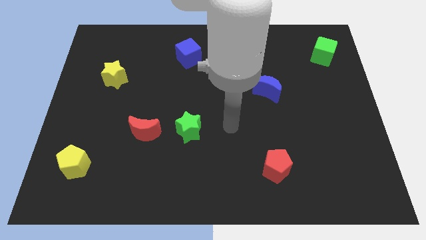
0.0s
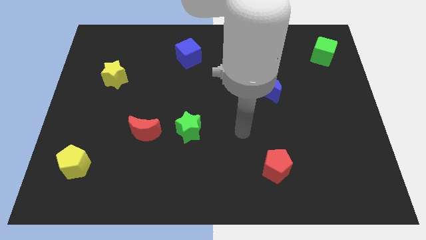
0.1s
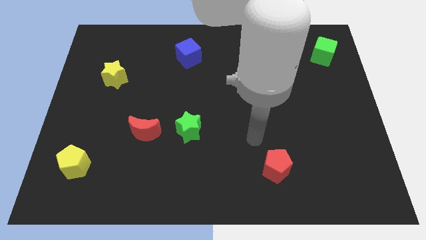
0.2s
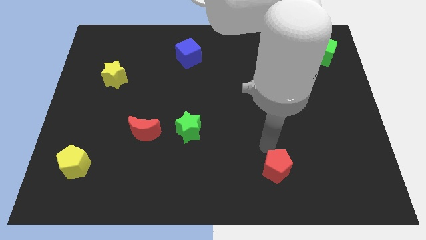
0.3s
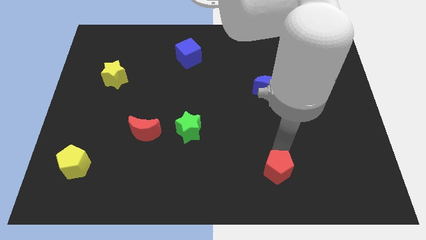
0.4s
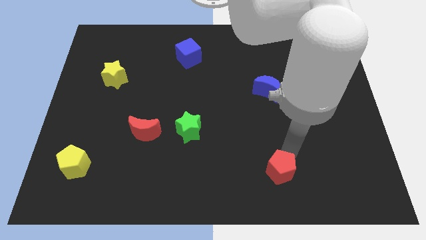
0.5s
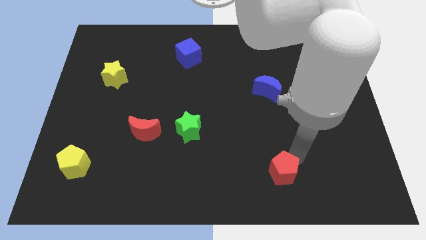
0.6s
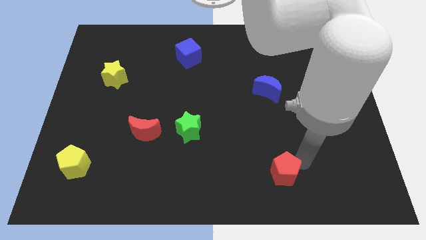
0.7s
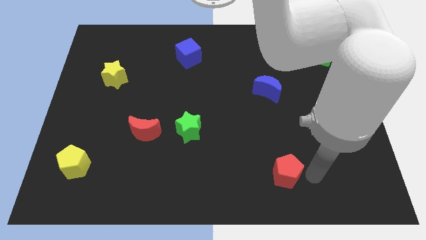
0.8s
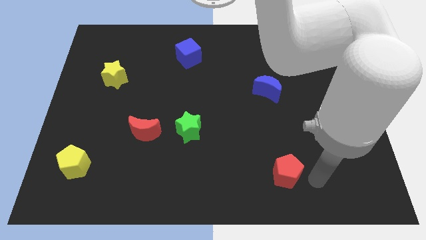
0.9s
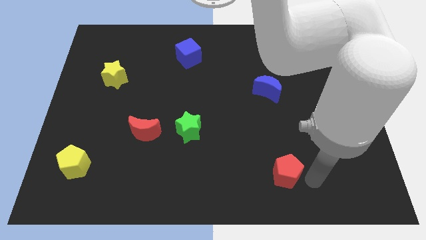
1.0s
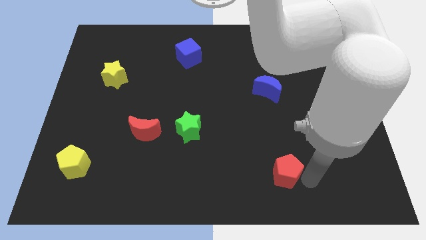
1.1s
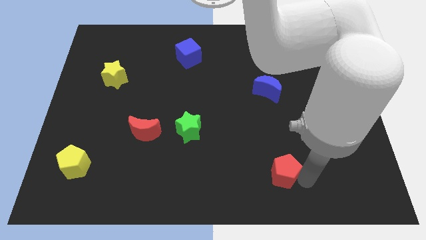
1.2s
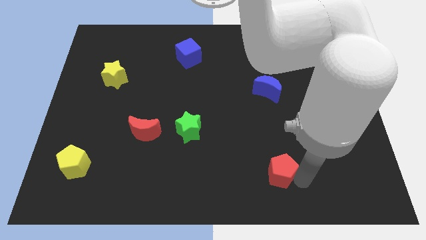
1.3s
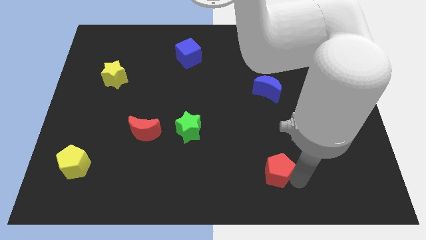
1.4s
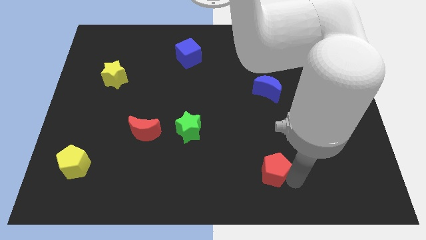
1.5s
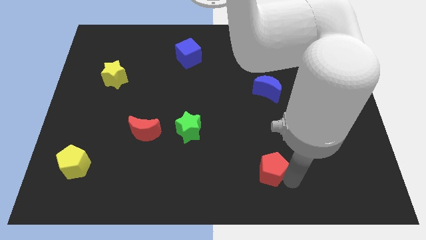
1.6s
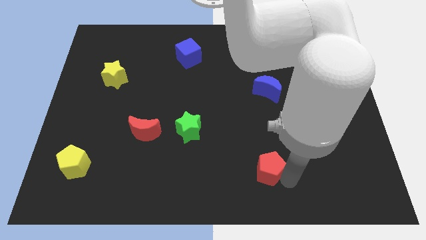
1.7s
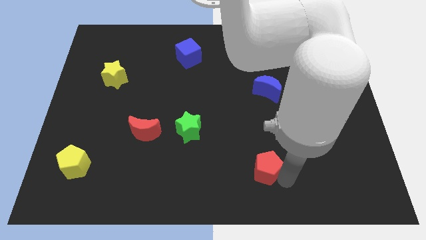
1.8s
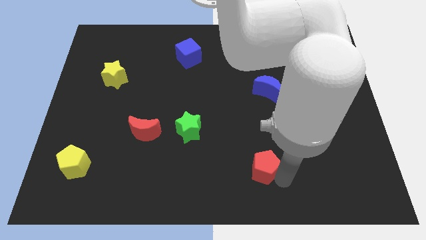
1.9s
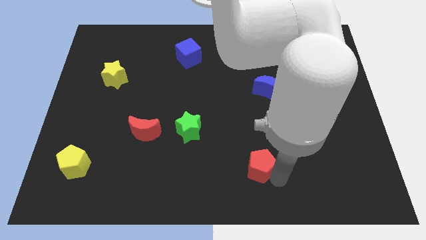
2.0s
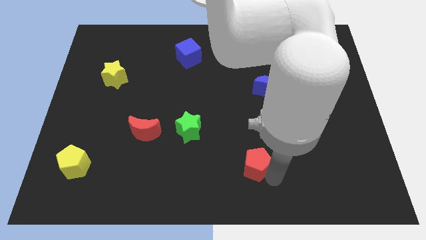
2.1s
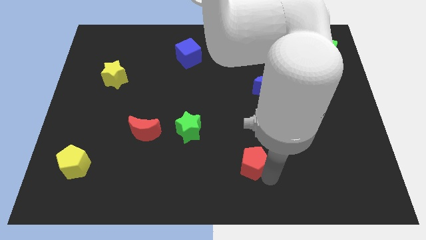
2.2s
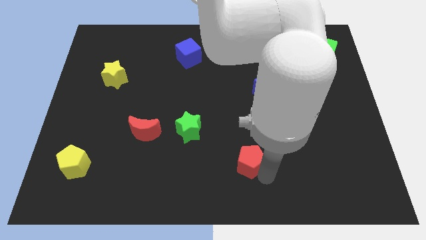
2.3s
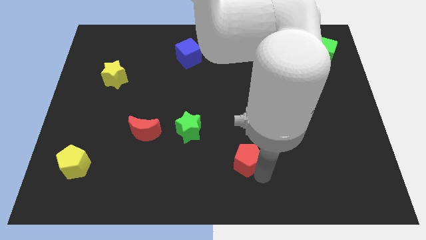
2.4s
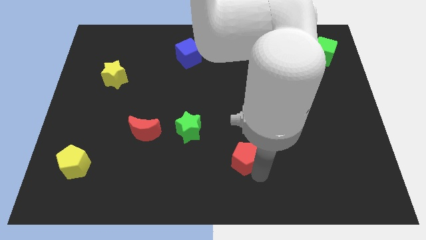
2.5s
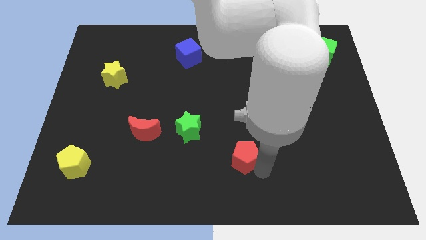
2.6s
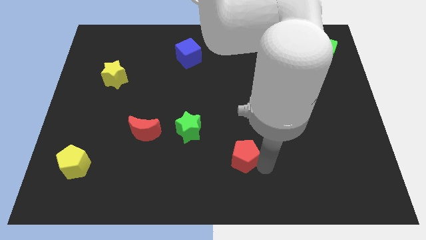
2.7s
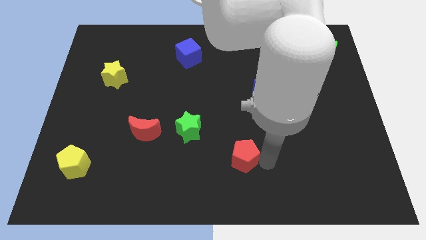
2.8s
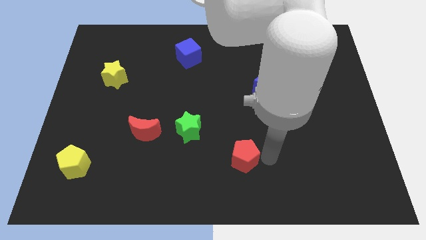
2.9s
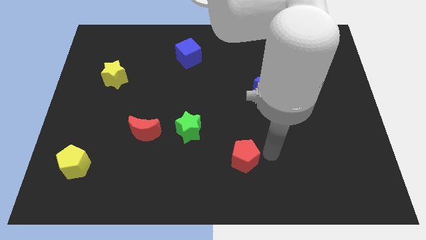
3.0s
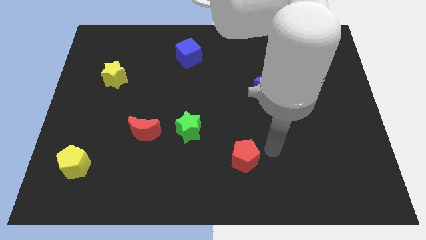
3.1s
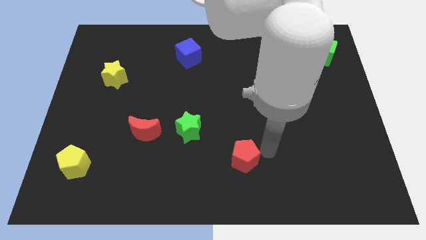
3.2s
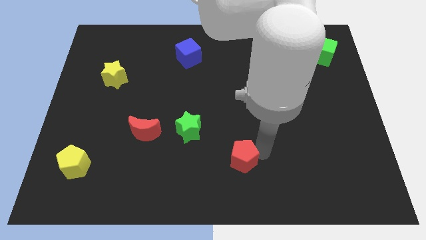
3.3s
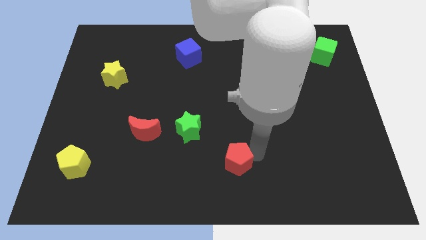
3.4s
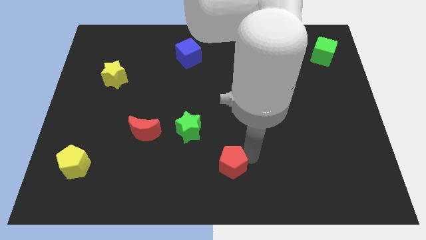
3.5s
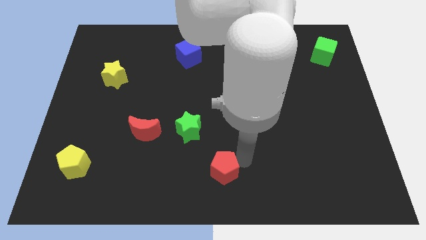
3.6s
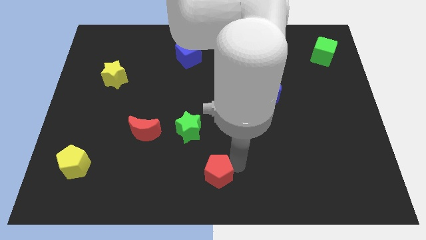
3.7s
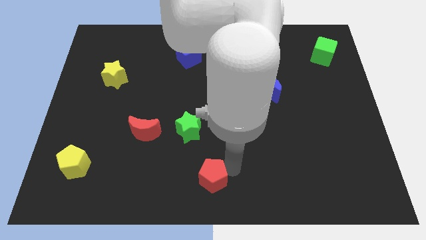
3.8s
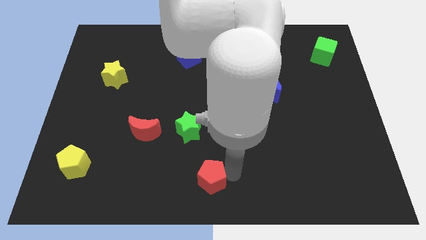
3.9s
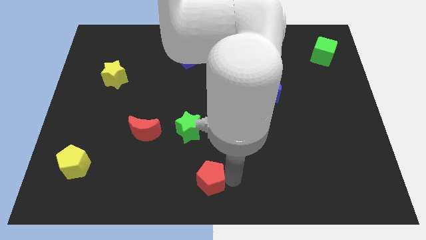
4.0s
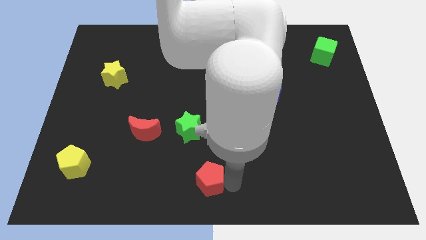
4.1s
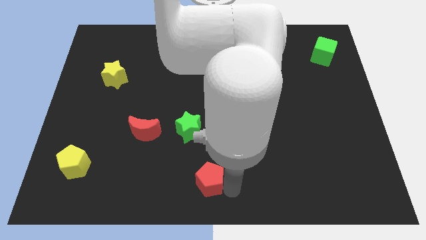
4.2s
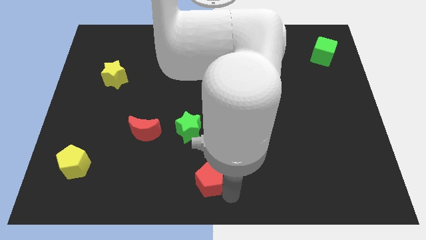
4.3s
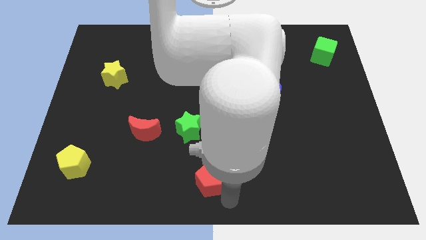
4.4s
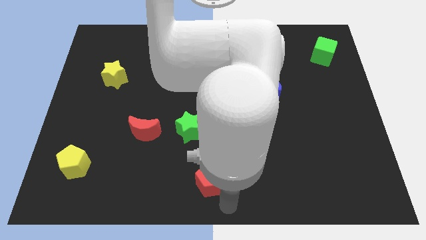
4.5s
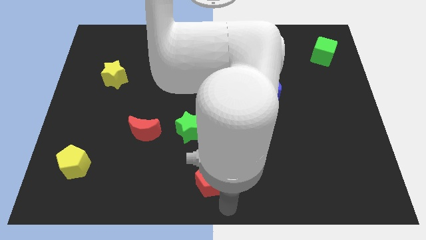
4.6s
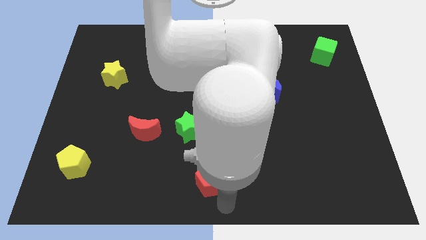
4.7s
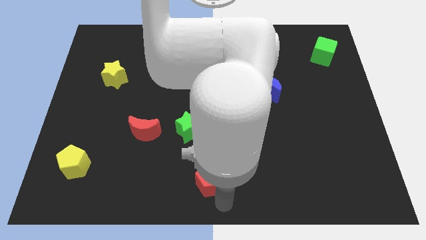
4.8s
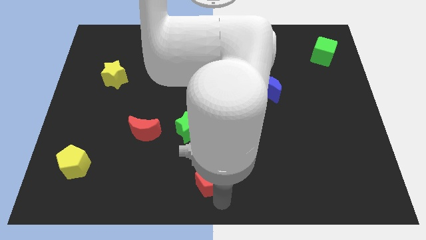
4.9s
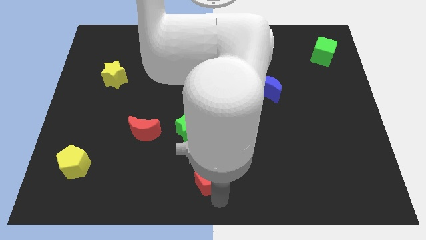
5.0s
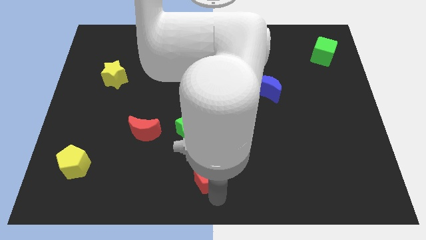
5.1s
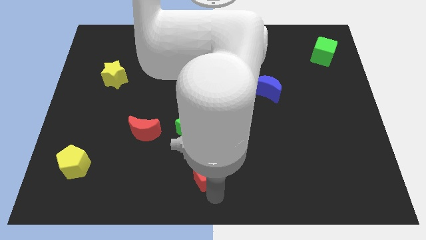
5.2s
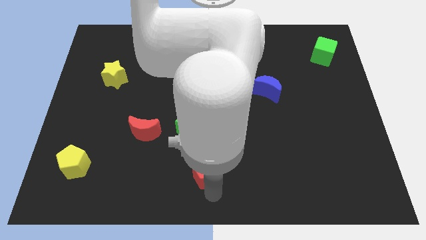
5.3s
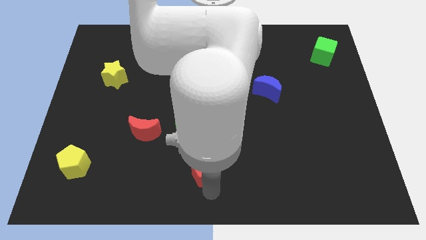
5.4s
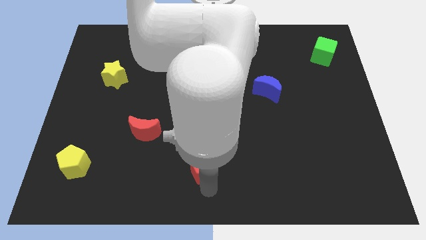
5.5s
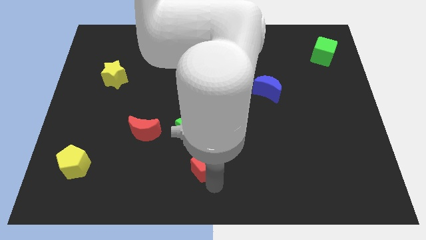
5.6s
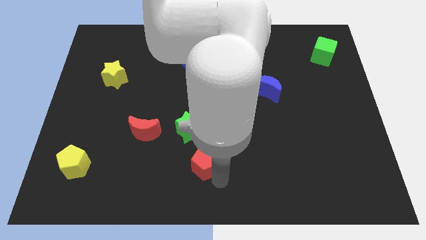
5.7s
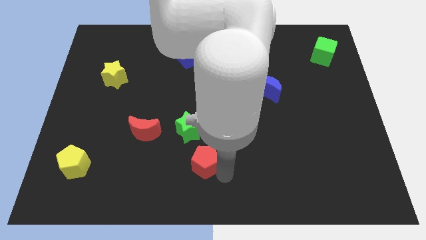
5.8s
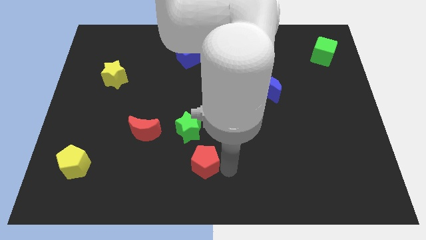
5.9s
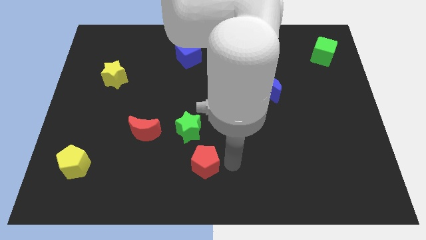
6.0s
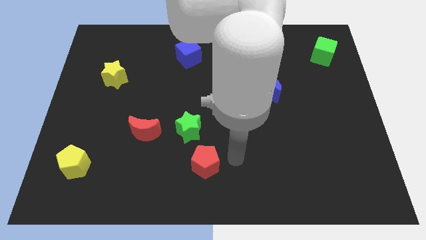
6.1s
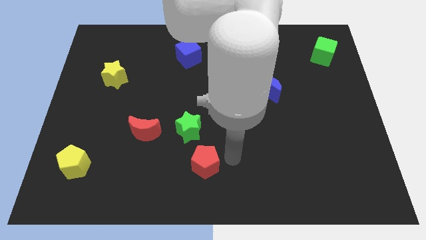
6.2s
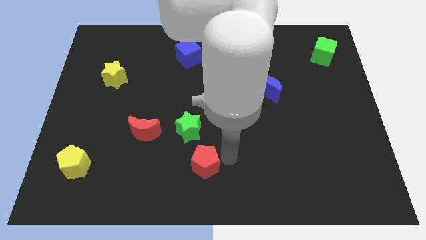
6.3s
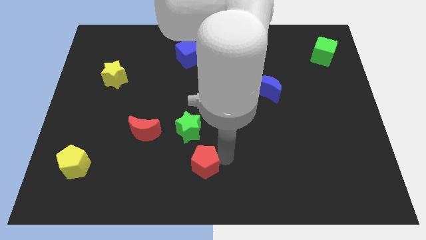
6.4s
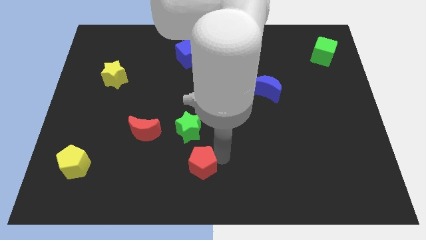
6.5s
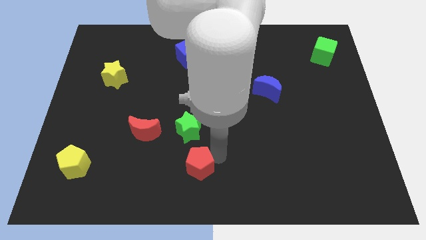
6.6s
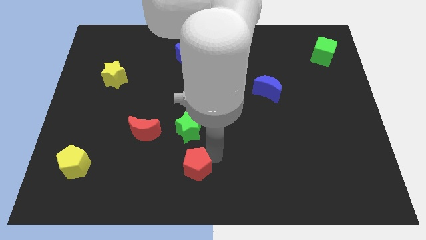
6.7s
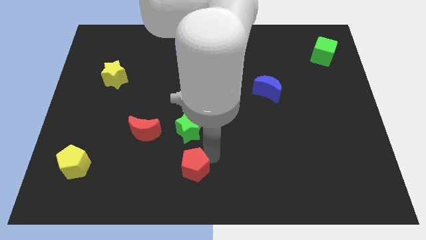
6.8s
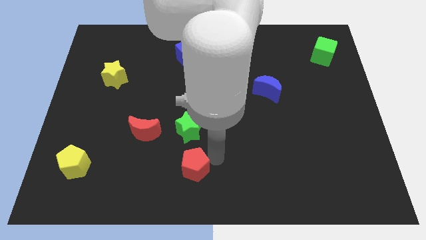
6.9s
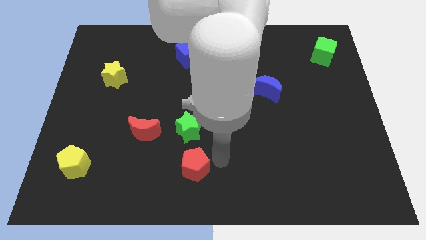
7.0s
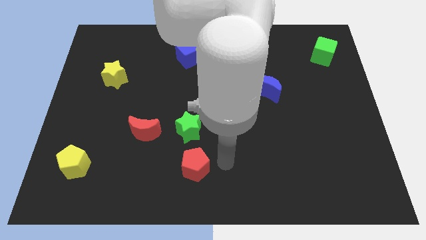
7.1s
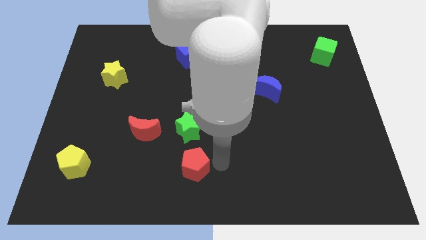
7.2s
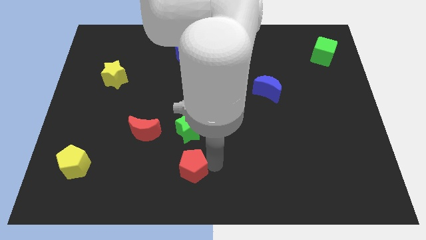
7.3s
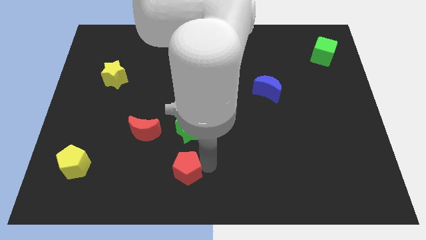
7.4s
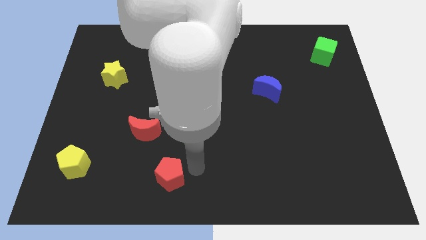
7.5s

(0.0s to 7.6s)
move the red pentagon left
